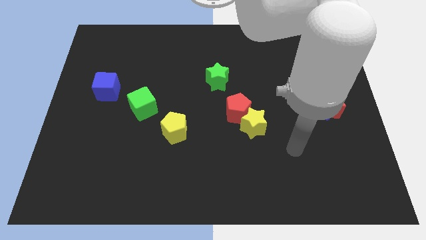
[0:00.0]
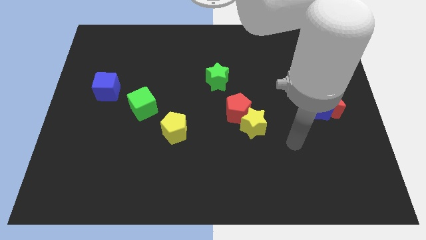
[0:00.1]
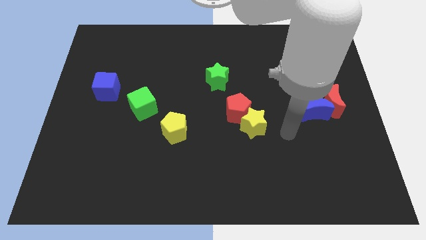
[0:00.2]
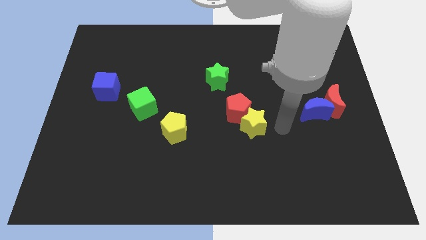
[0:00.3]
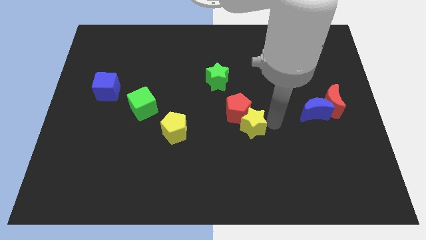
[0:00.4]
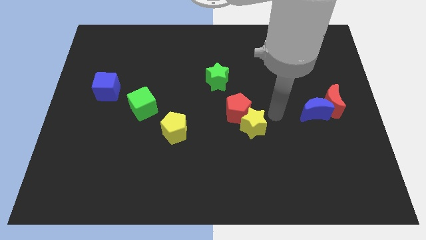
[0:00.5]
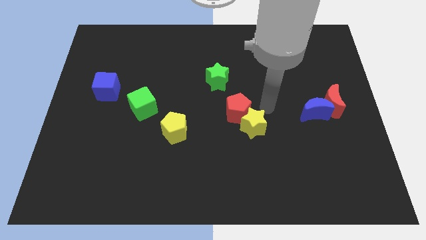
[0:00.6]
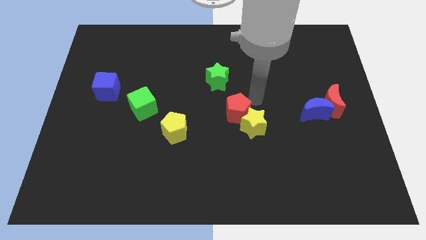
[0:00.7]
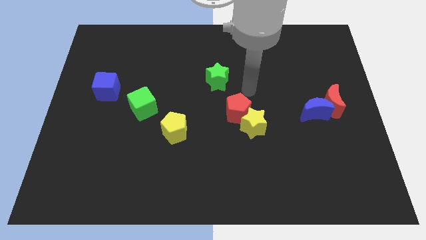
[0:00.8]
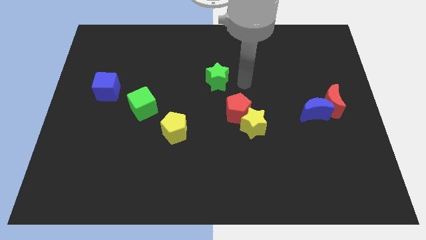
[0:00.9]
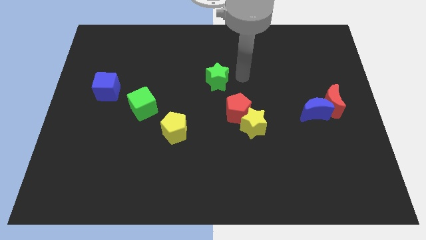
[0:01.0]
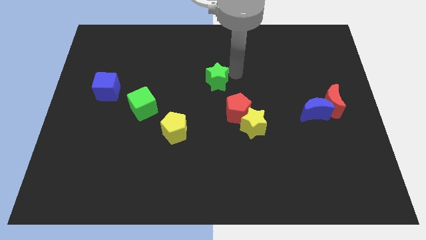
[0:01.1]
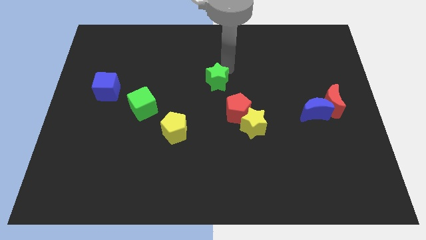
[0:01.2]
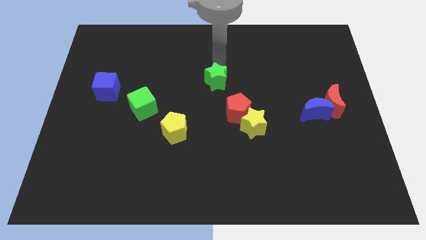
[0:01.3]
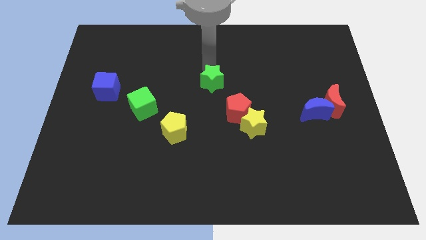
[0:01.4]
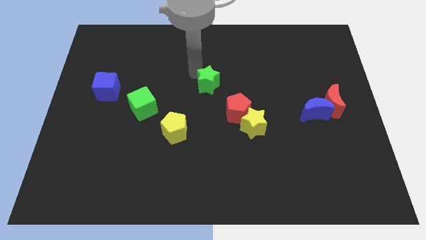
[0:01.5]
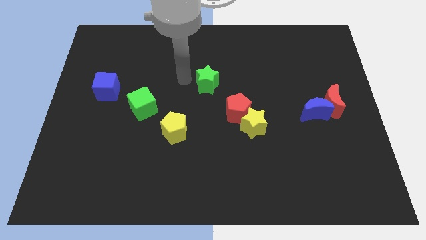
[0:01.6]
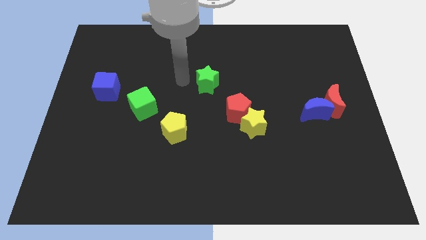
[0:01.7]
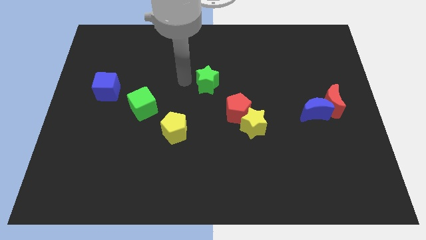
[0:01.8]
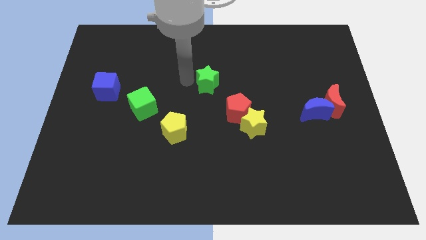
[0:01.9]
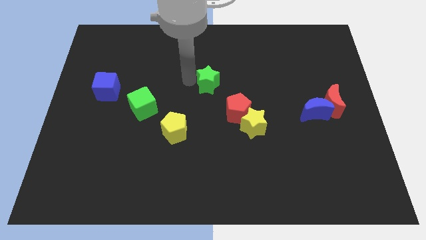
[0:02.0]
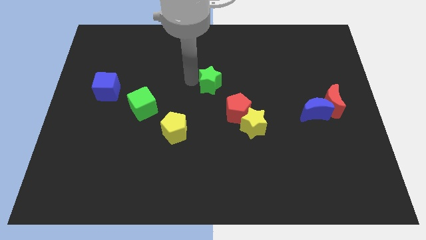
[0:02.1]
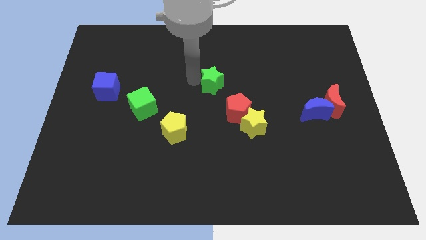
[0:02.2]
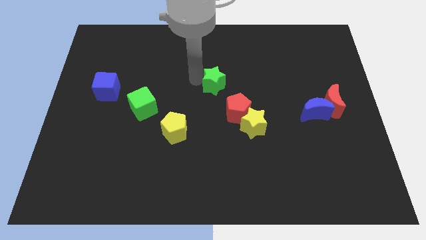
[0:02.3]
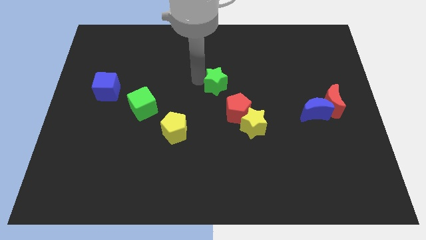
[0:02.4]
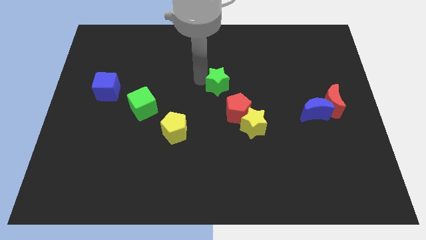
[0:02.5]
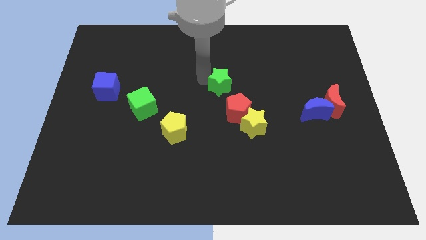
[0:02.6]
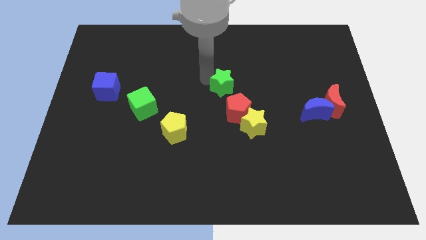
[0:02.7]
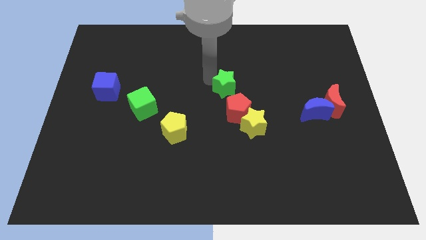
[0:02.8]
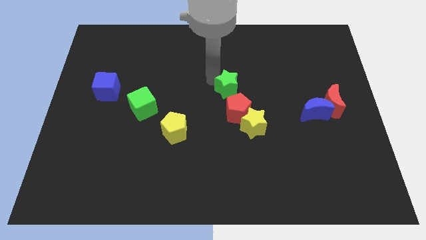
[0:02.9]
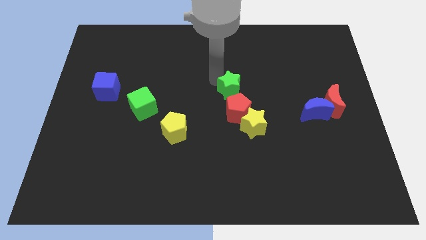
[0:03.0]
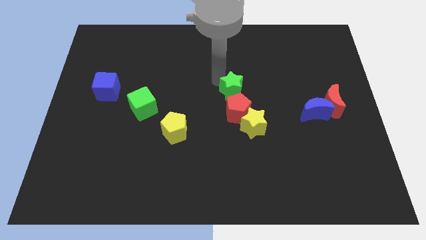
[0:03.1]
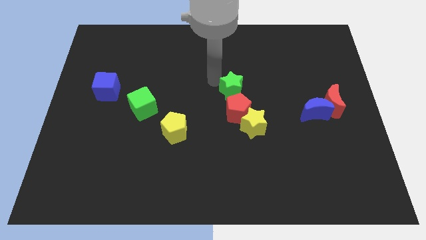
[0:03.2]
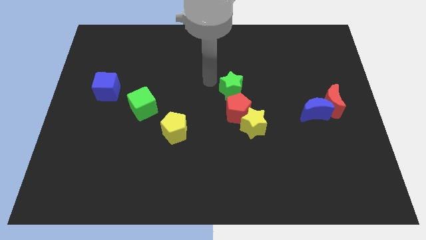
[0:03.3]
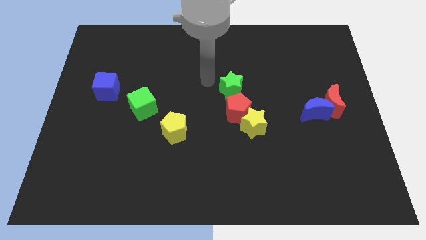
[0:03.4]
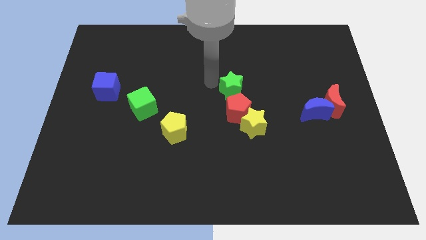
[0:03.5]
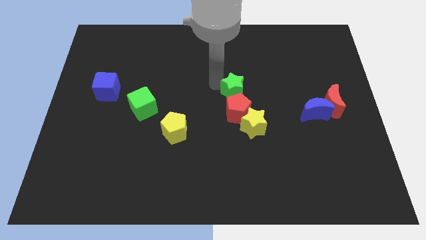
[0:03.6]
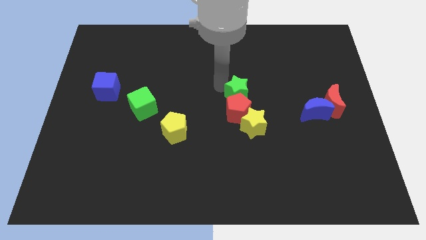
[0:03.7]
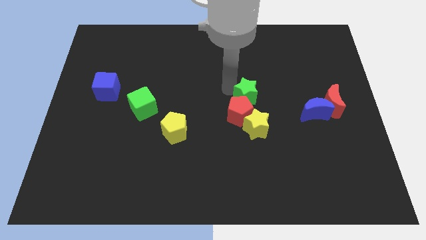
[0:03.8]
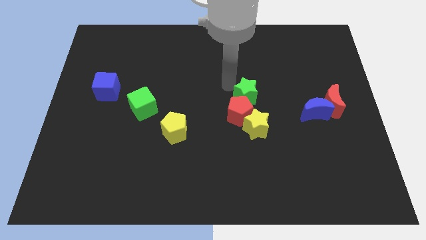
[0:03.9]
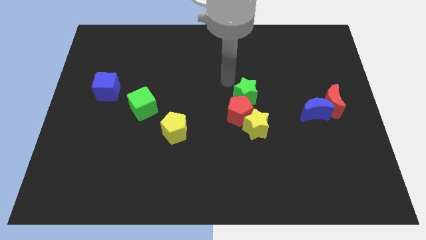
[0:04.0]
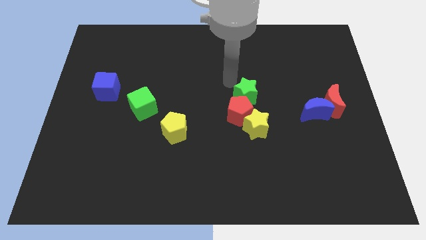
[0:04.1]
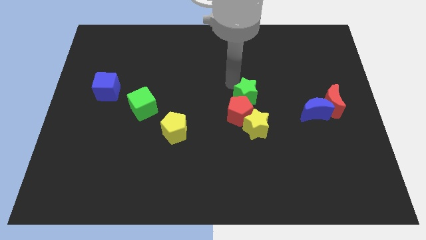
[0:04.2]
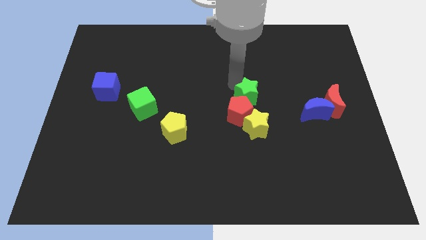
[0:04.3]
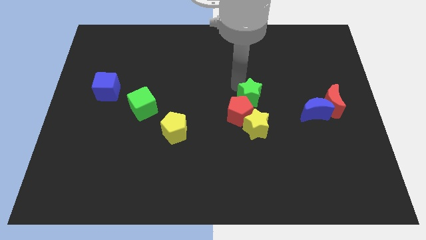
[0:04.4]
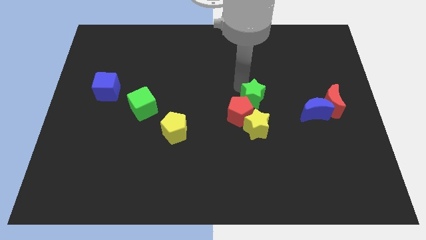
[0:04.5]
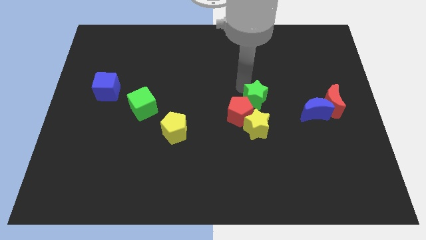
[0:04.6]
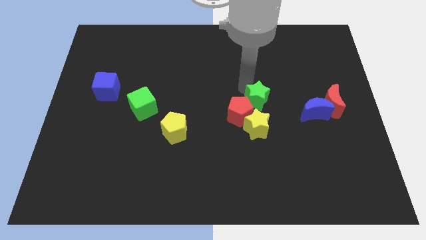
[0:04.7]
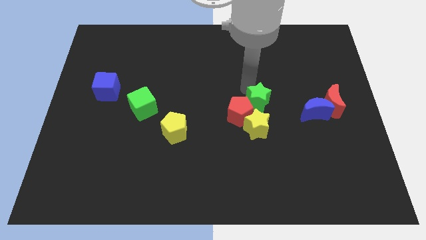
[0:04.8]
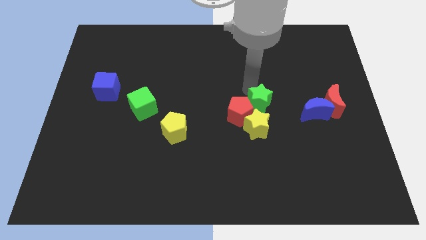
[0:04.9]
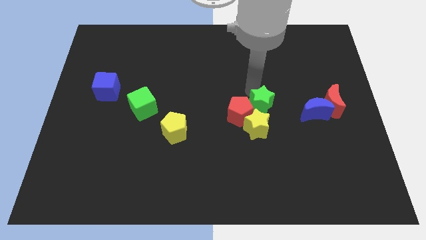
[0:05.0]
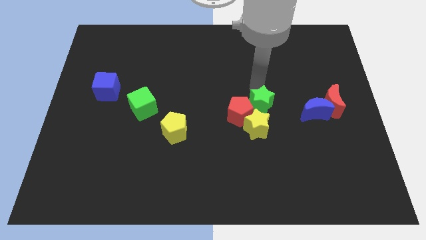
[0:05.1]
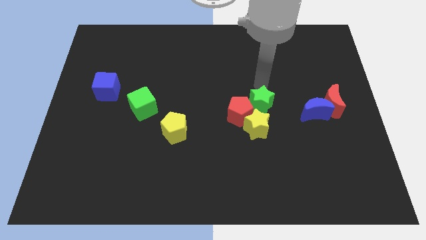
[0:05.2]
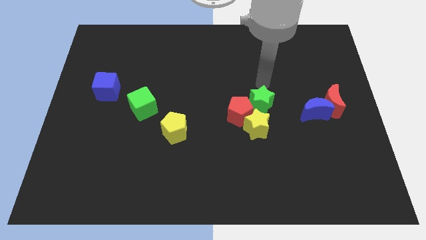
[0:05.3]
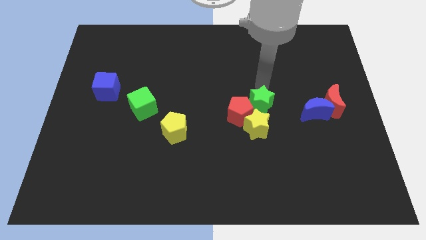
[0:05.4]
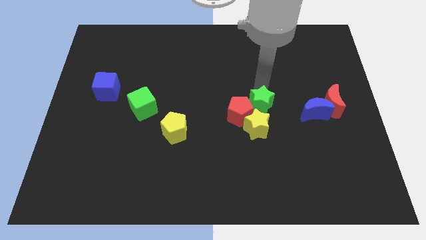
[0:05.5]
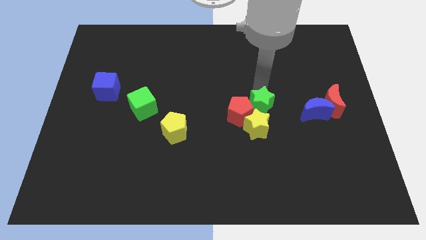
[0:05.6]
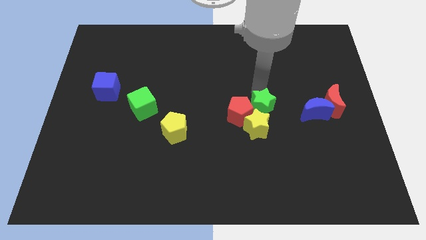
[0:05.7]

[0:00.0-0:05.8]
push the green star next to the yellow star

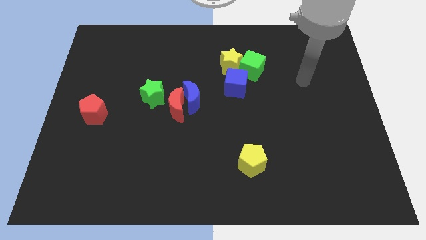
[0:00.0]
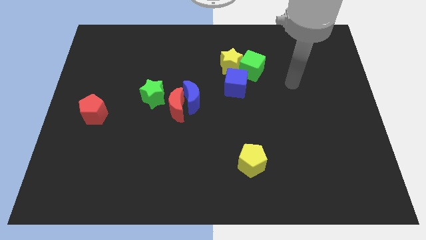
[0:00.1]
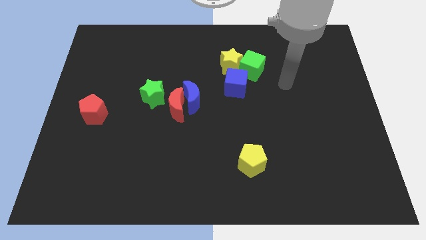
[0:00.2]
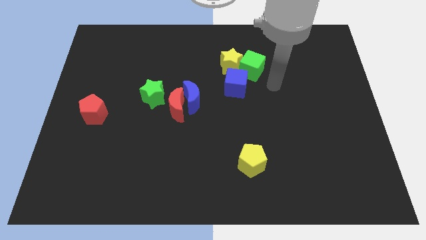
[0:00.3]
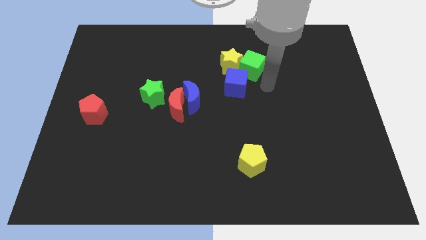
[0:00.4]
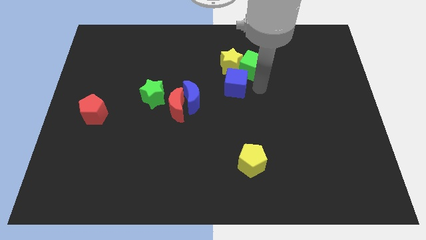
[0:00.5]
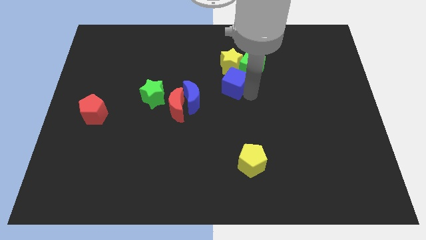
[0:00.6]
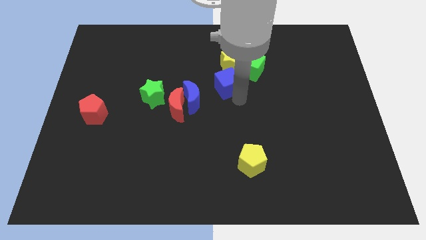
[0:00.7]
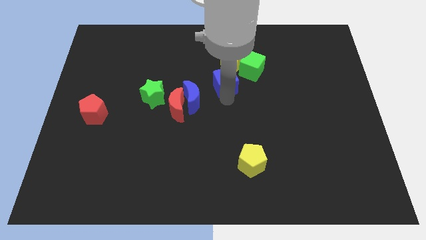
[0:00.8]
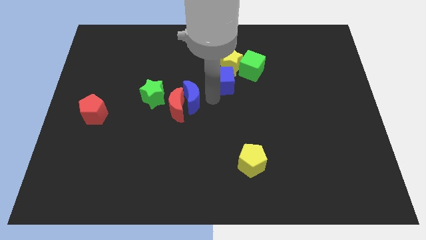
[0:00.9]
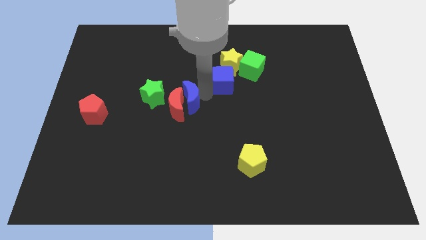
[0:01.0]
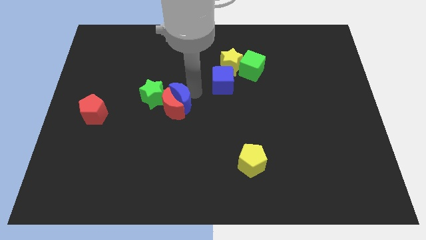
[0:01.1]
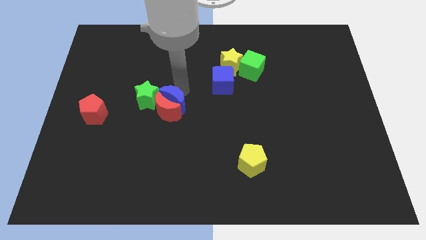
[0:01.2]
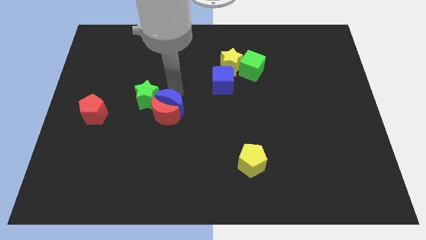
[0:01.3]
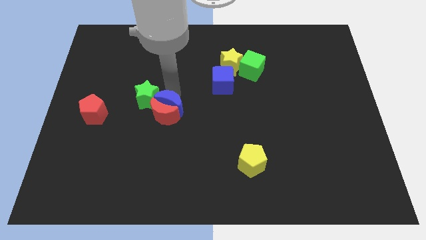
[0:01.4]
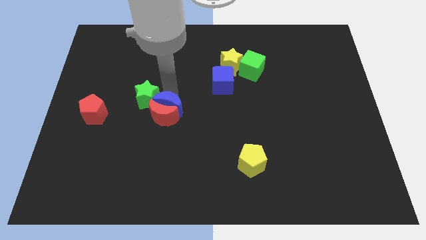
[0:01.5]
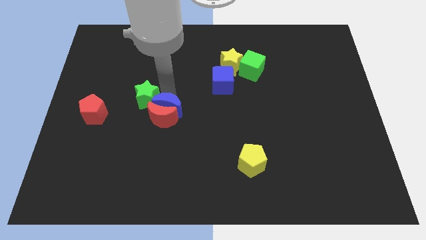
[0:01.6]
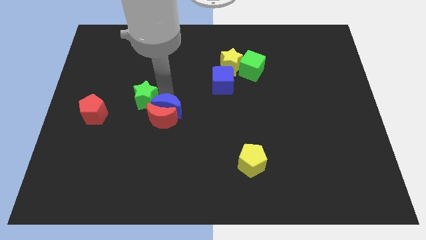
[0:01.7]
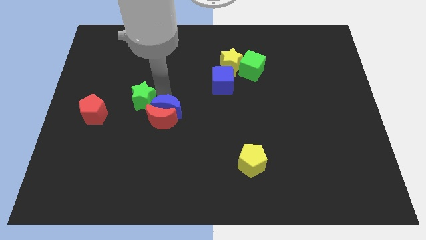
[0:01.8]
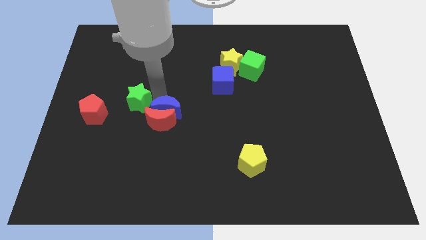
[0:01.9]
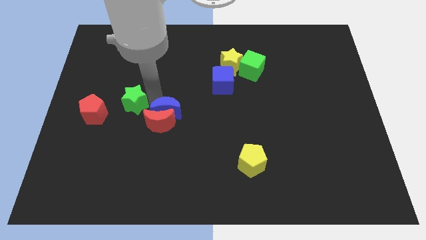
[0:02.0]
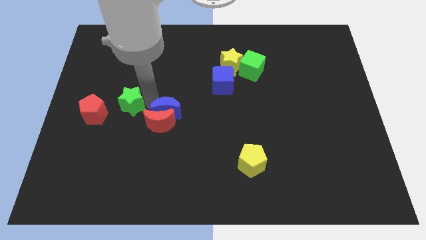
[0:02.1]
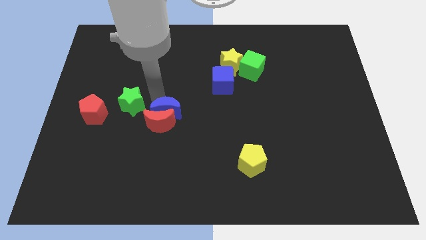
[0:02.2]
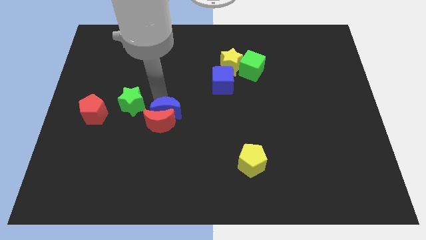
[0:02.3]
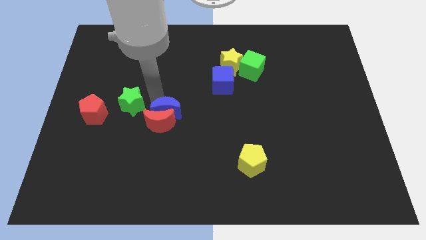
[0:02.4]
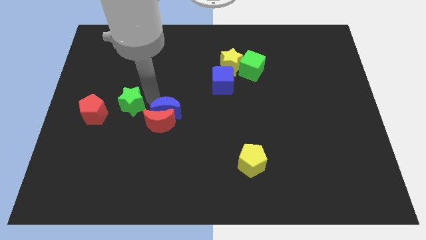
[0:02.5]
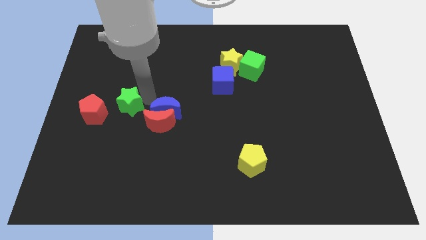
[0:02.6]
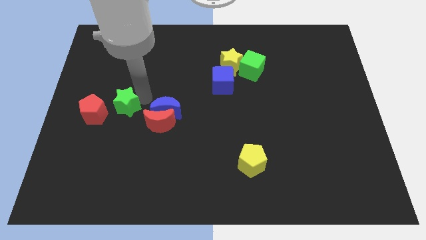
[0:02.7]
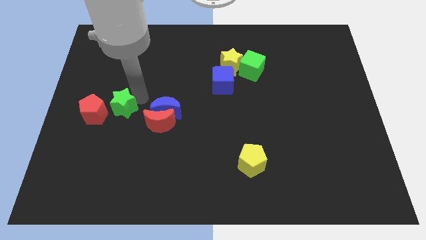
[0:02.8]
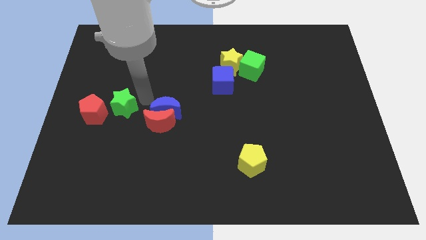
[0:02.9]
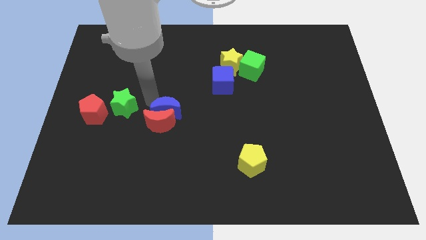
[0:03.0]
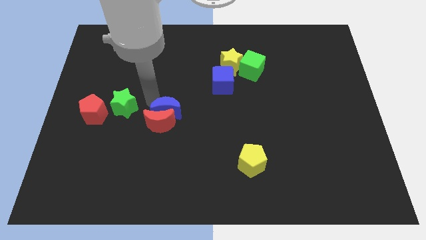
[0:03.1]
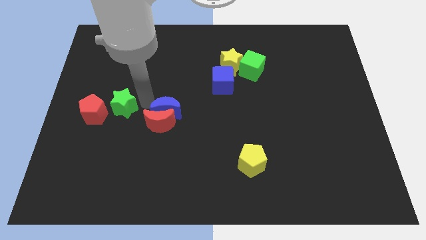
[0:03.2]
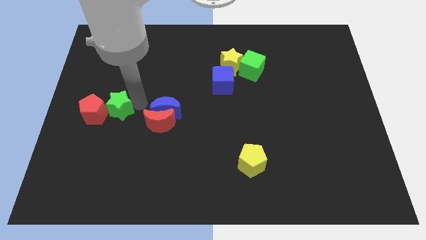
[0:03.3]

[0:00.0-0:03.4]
slide the green star to the red pentagon
